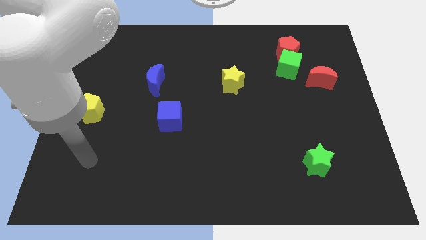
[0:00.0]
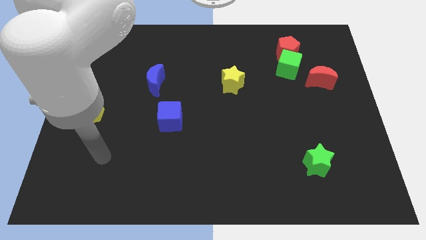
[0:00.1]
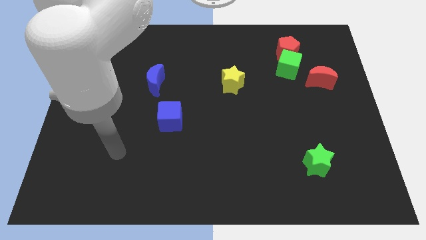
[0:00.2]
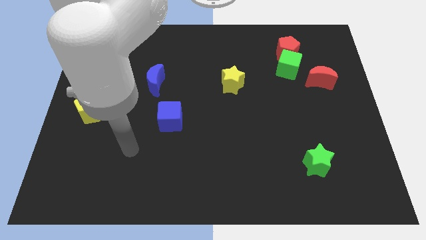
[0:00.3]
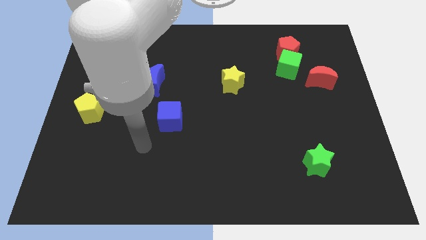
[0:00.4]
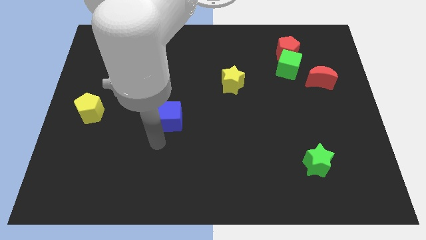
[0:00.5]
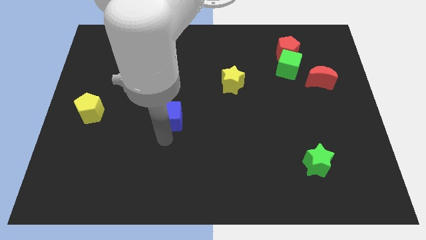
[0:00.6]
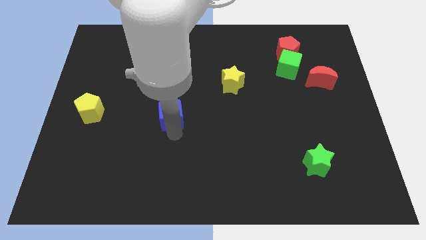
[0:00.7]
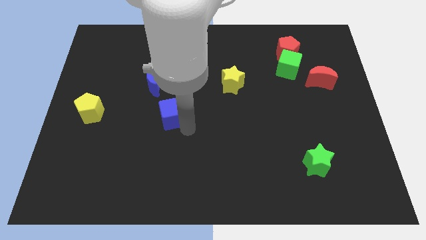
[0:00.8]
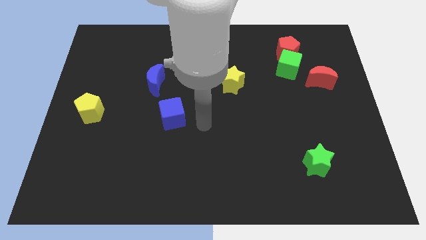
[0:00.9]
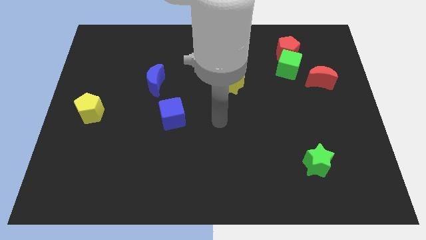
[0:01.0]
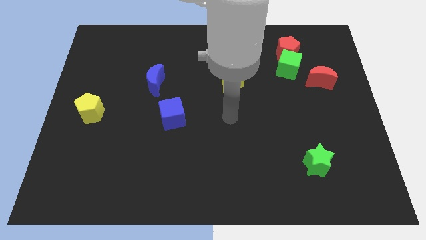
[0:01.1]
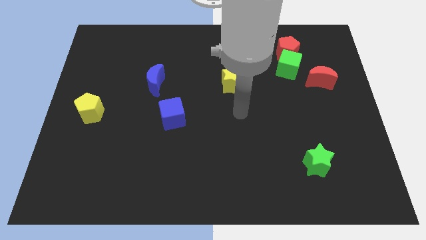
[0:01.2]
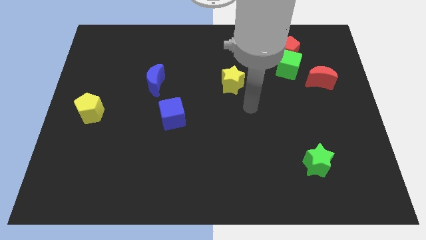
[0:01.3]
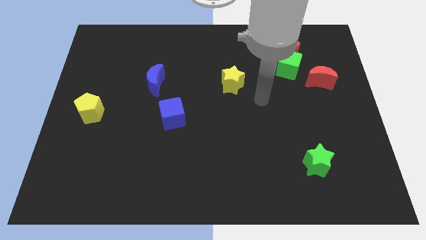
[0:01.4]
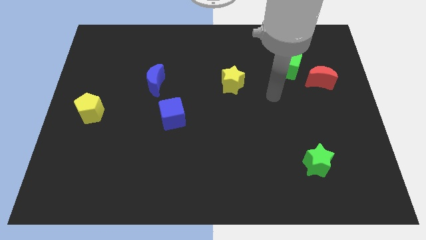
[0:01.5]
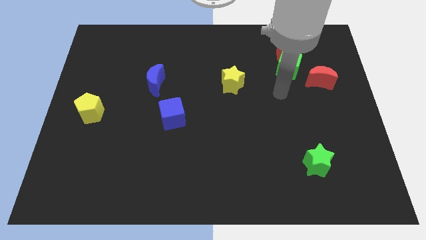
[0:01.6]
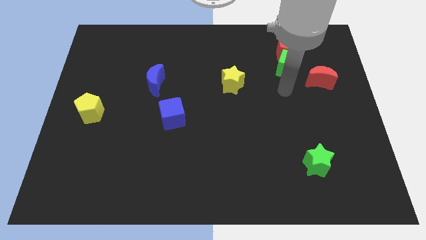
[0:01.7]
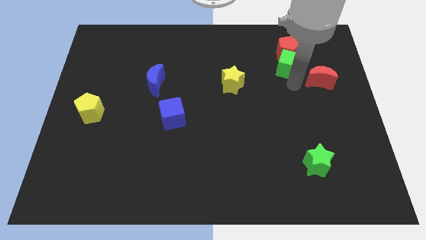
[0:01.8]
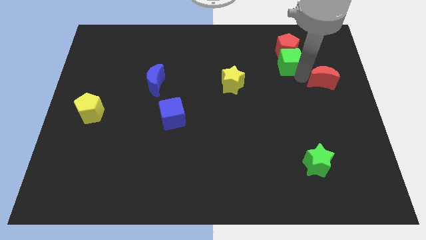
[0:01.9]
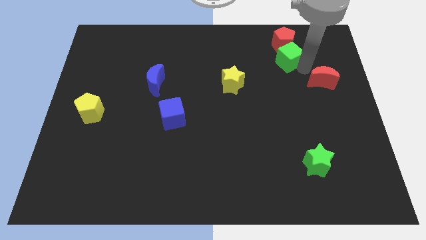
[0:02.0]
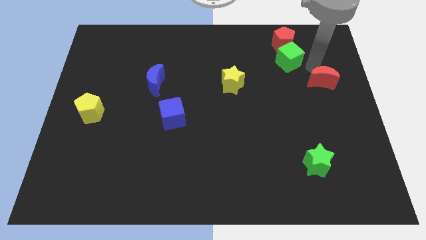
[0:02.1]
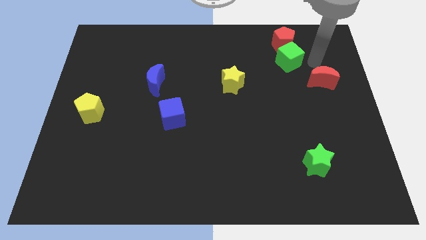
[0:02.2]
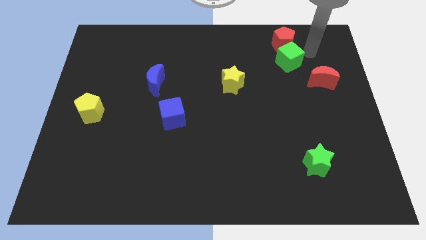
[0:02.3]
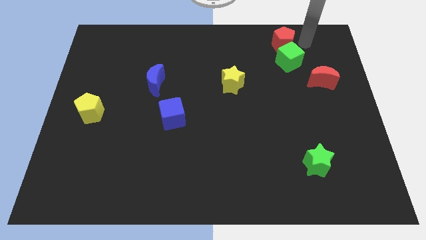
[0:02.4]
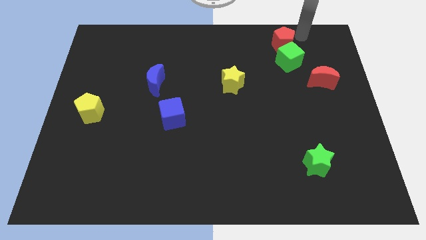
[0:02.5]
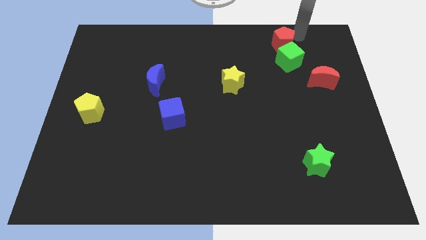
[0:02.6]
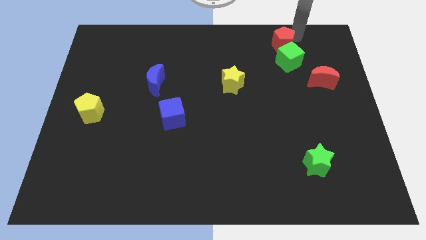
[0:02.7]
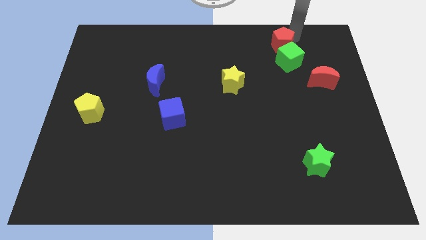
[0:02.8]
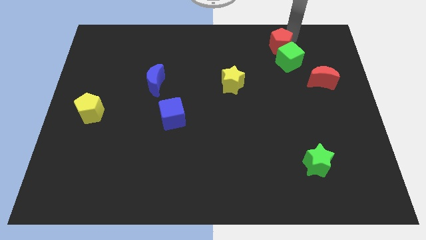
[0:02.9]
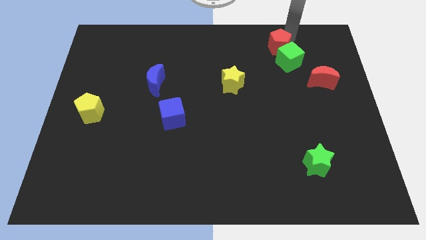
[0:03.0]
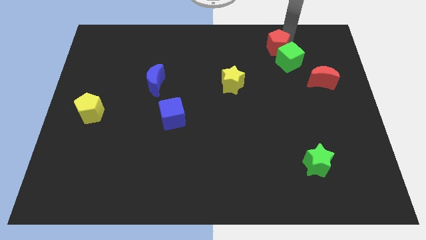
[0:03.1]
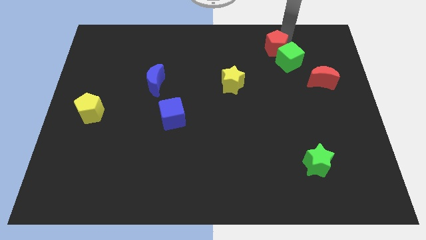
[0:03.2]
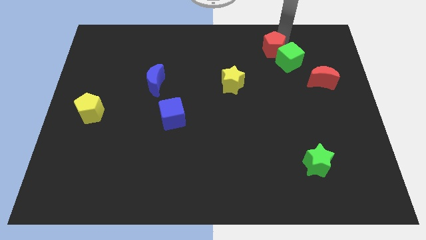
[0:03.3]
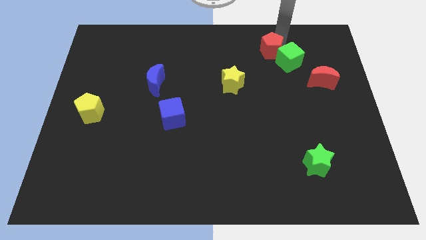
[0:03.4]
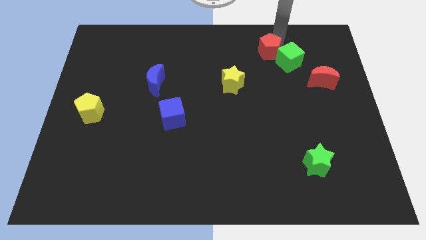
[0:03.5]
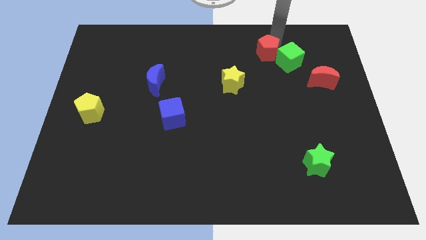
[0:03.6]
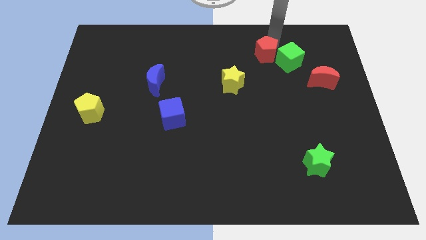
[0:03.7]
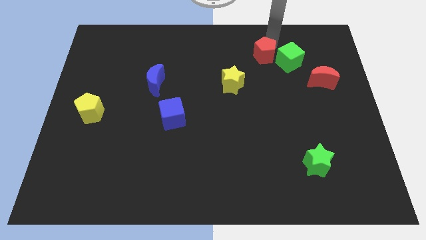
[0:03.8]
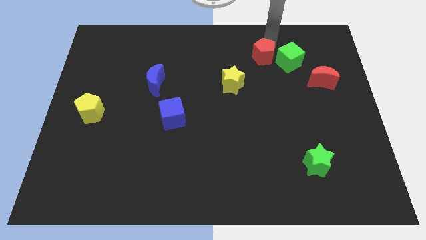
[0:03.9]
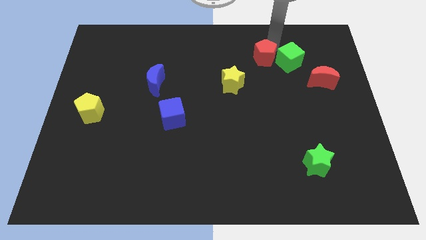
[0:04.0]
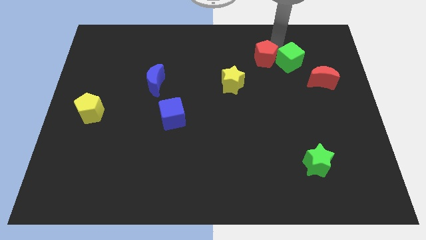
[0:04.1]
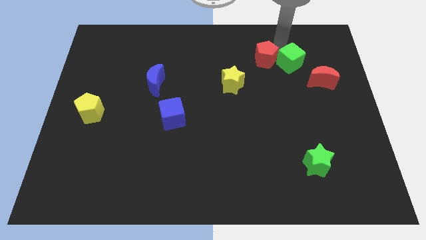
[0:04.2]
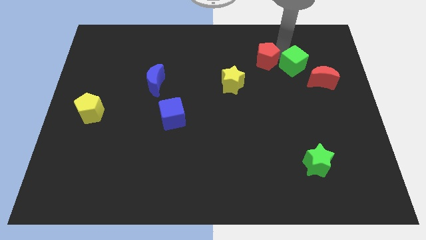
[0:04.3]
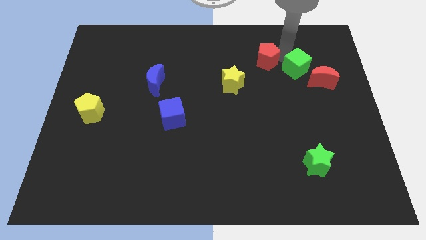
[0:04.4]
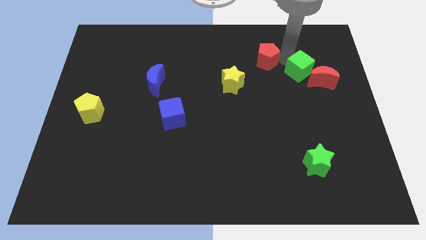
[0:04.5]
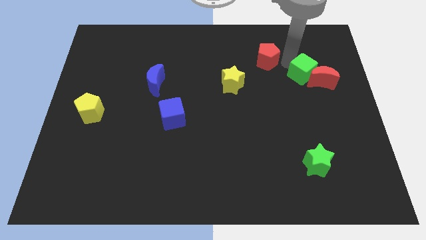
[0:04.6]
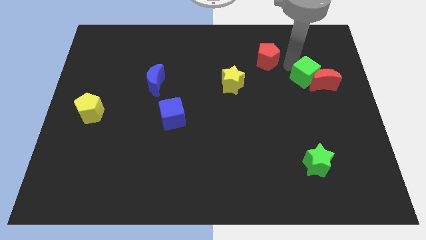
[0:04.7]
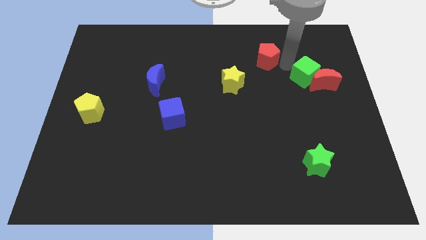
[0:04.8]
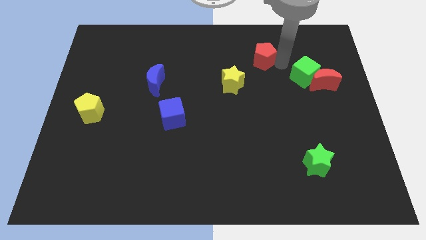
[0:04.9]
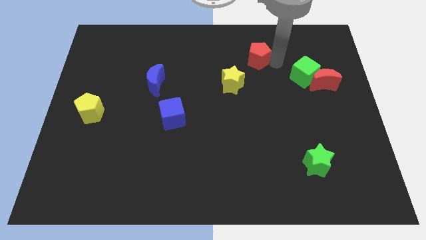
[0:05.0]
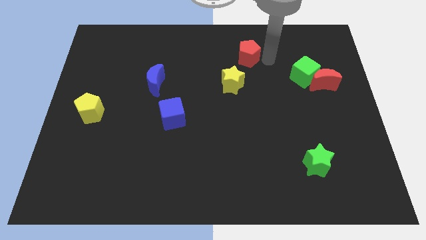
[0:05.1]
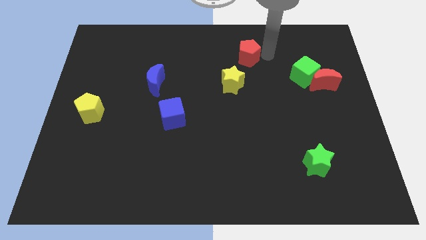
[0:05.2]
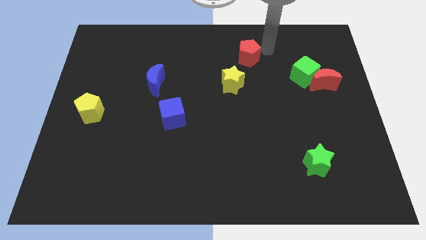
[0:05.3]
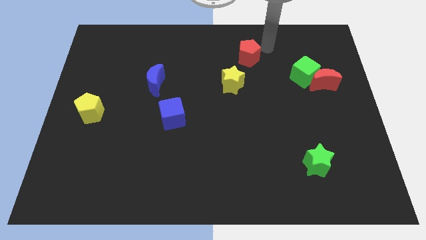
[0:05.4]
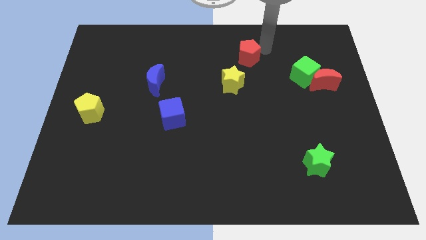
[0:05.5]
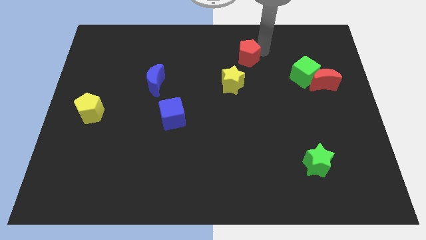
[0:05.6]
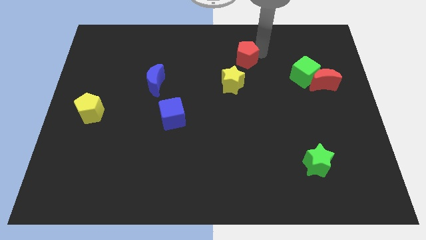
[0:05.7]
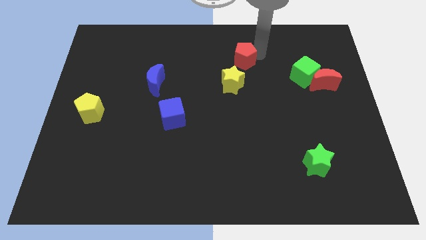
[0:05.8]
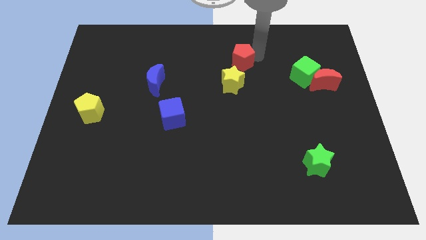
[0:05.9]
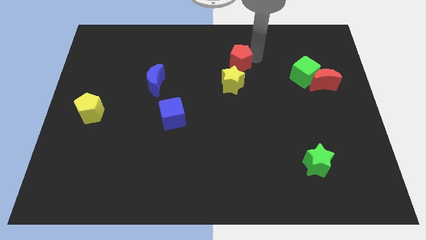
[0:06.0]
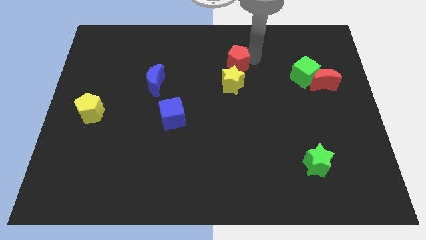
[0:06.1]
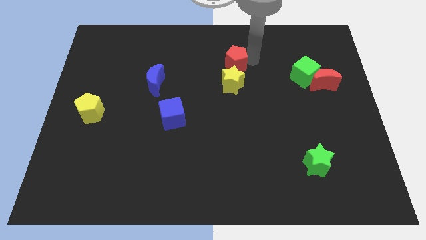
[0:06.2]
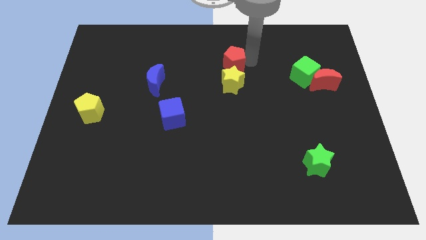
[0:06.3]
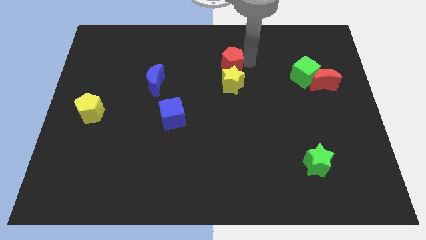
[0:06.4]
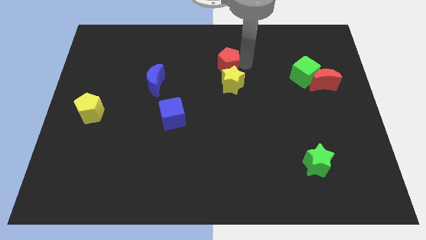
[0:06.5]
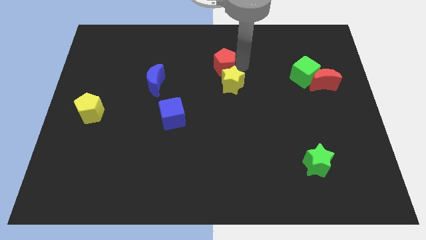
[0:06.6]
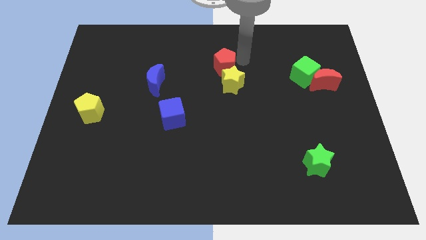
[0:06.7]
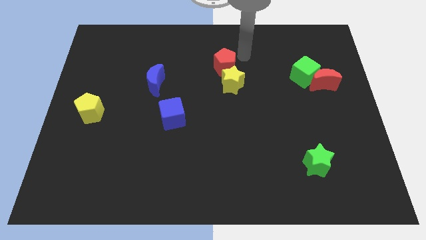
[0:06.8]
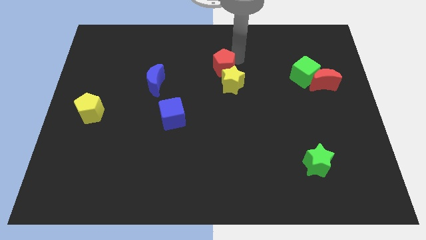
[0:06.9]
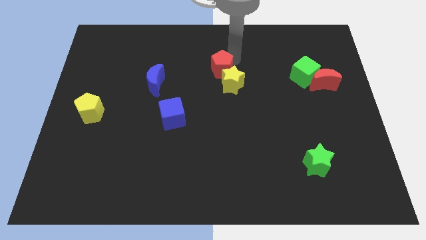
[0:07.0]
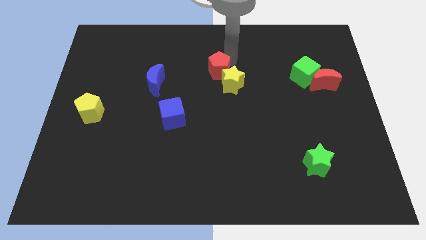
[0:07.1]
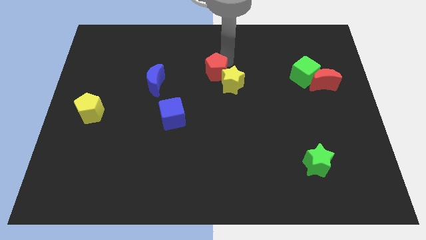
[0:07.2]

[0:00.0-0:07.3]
slide the red pentagon just left of the yellow star
